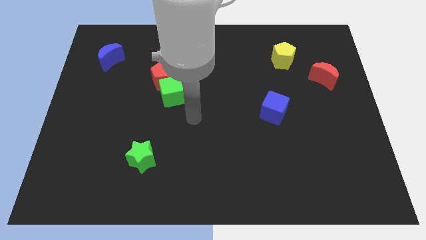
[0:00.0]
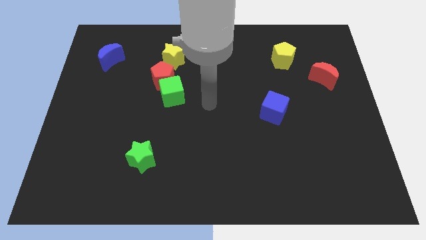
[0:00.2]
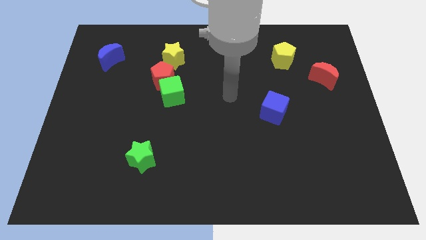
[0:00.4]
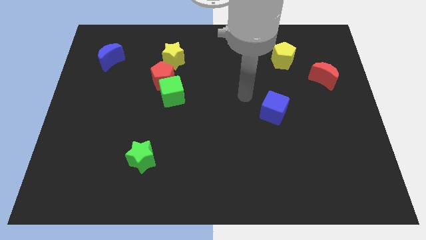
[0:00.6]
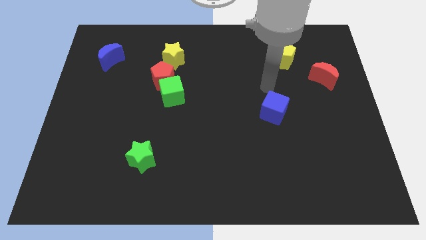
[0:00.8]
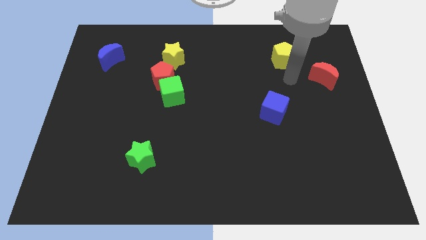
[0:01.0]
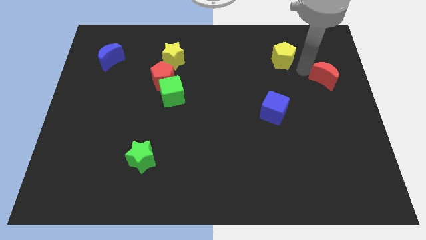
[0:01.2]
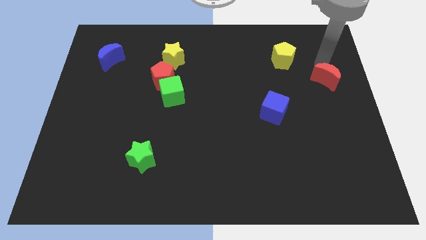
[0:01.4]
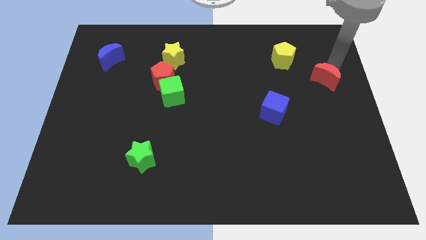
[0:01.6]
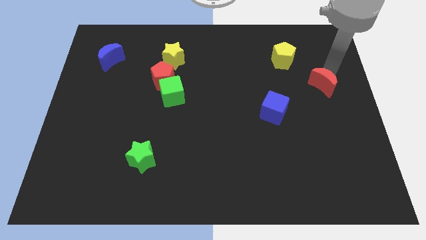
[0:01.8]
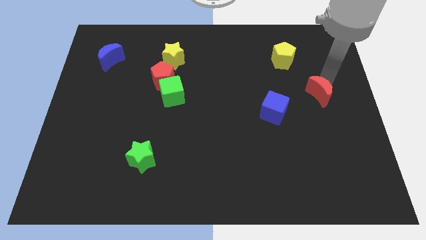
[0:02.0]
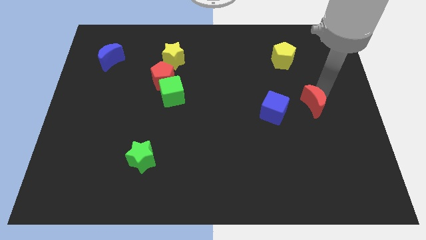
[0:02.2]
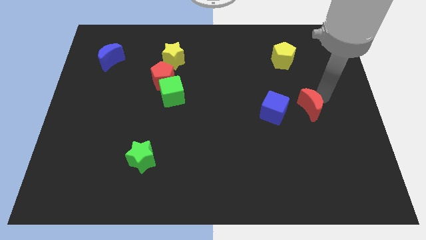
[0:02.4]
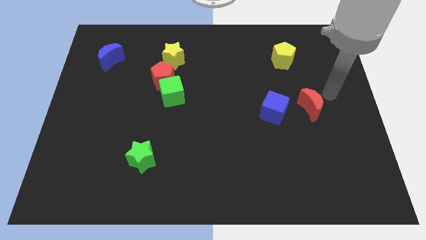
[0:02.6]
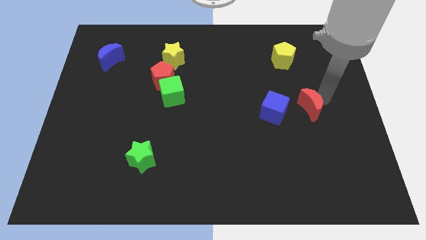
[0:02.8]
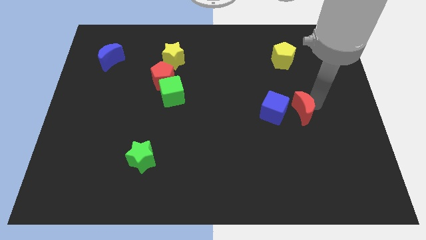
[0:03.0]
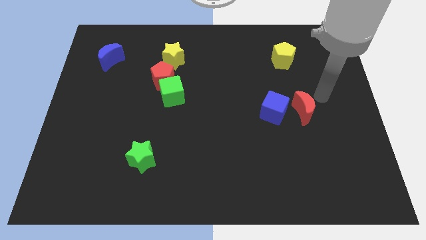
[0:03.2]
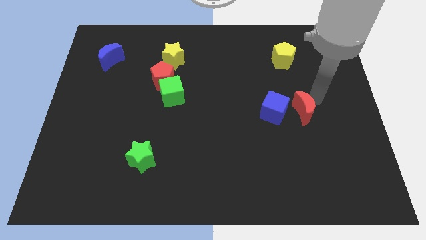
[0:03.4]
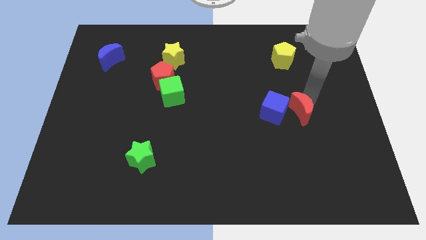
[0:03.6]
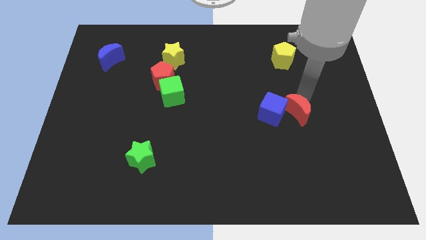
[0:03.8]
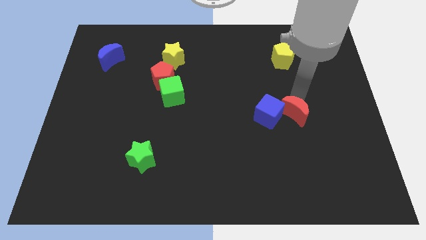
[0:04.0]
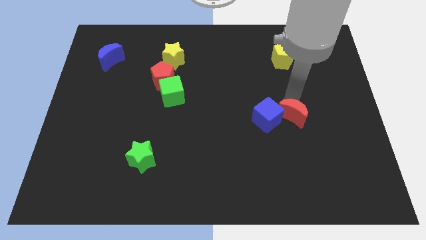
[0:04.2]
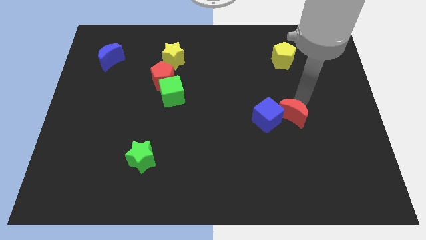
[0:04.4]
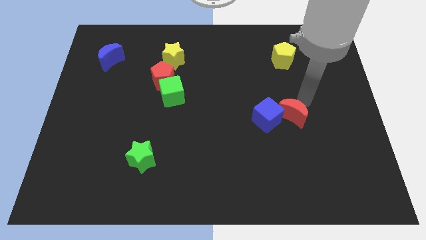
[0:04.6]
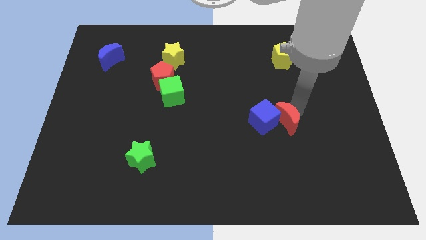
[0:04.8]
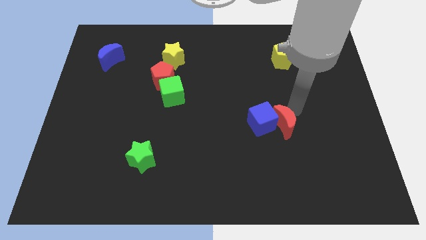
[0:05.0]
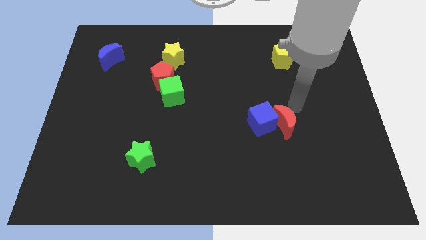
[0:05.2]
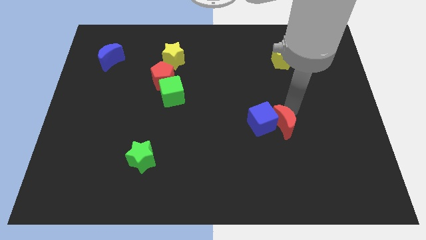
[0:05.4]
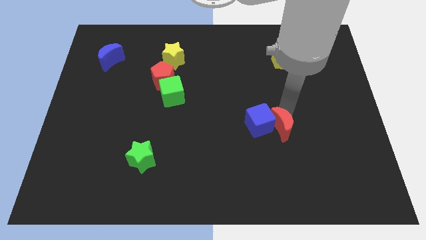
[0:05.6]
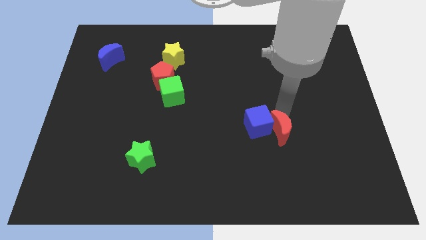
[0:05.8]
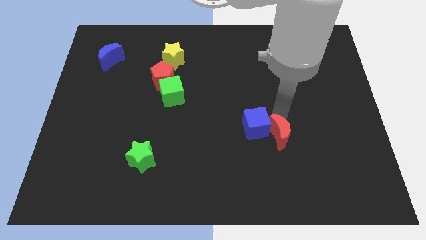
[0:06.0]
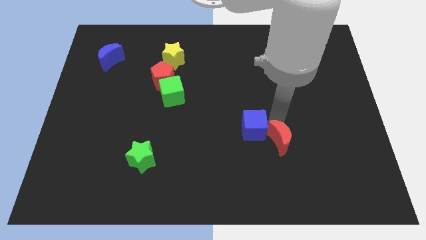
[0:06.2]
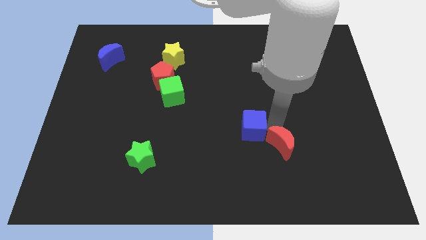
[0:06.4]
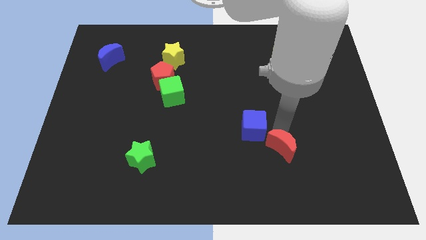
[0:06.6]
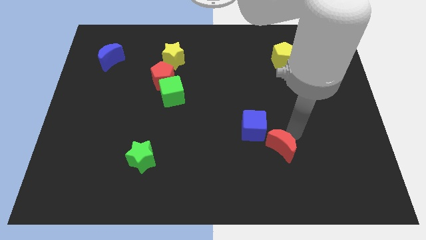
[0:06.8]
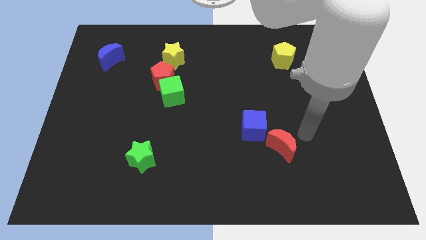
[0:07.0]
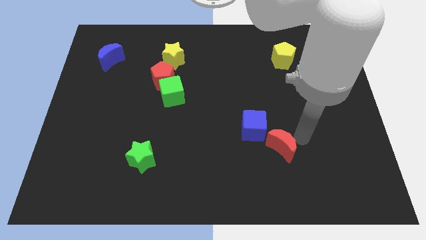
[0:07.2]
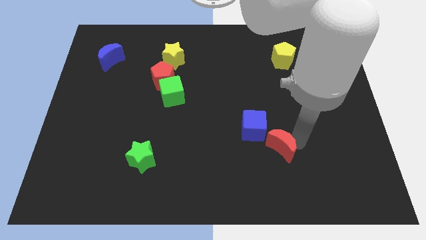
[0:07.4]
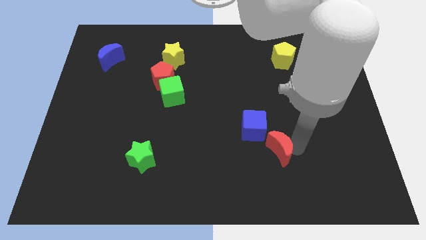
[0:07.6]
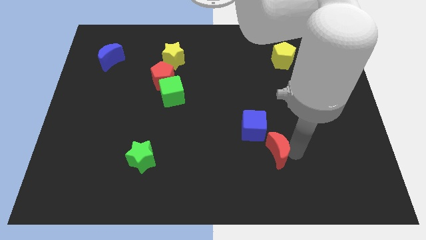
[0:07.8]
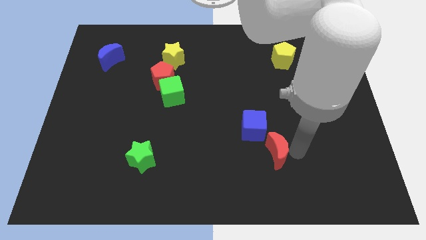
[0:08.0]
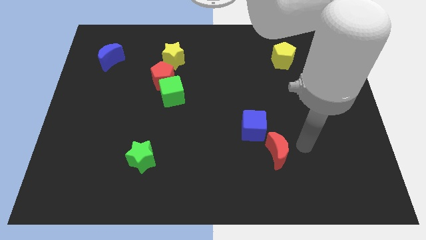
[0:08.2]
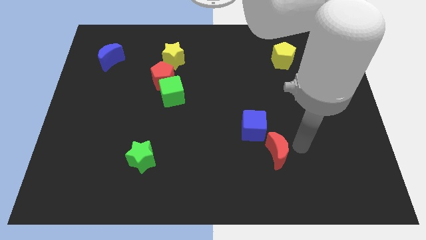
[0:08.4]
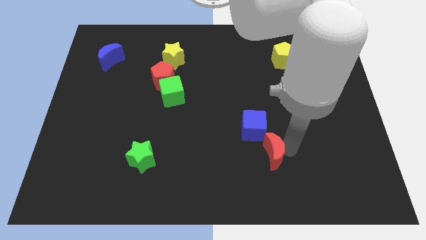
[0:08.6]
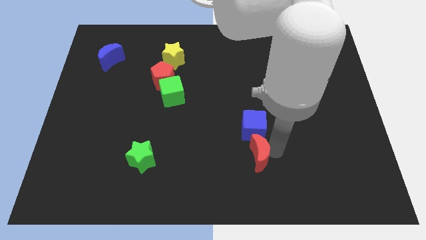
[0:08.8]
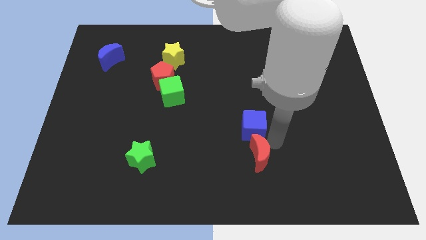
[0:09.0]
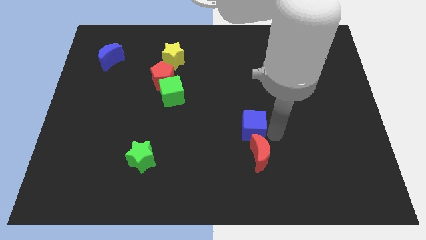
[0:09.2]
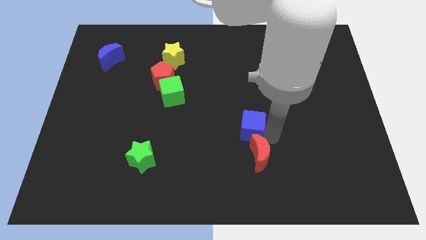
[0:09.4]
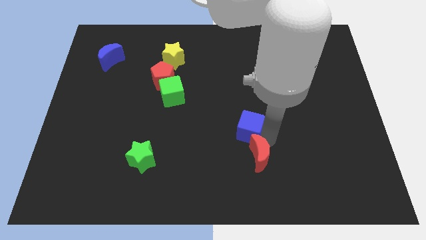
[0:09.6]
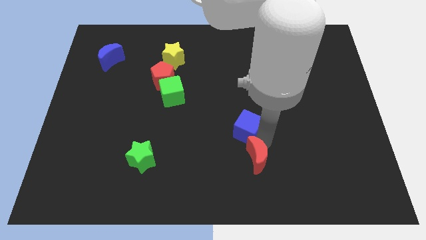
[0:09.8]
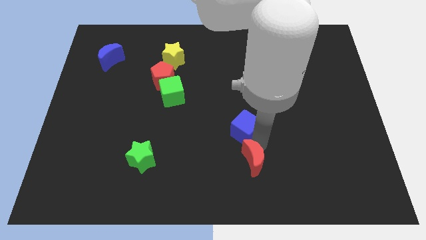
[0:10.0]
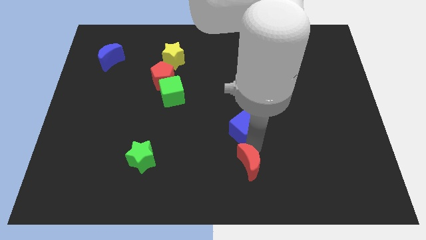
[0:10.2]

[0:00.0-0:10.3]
push the red moon to the bottom

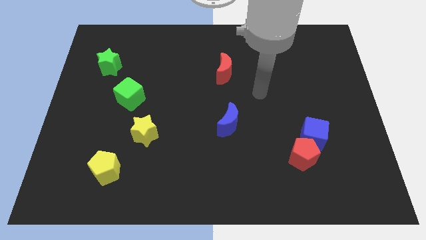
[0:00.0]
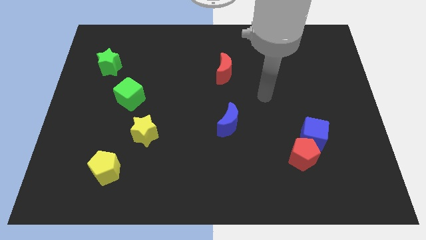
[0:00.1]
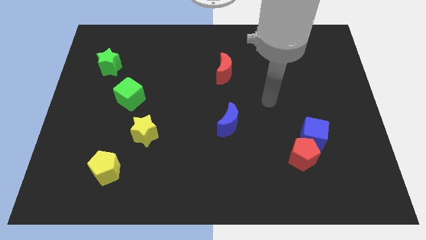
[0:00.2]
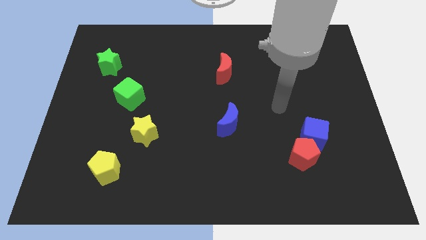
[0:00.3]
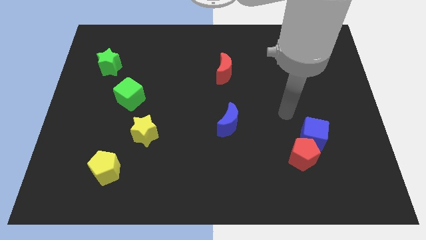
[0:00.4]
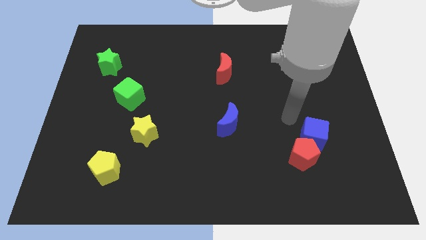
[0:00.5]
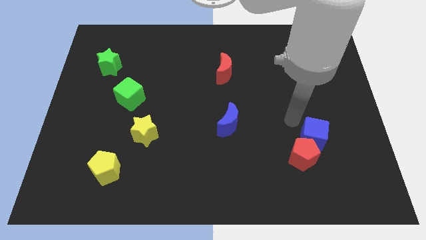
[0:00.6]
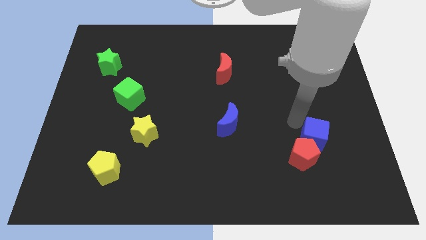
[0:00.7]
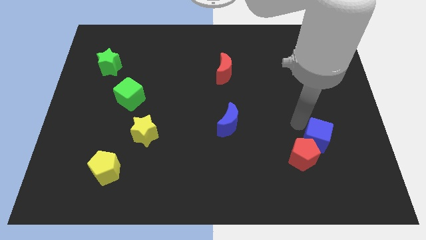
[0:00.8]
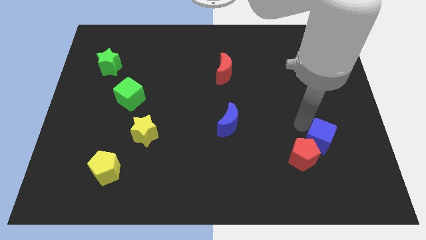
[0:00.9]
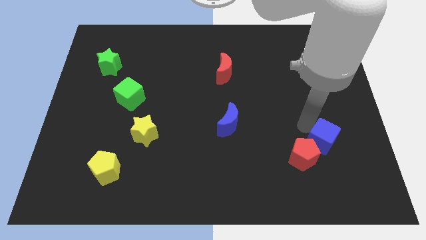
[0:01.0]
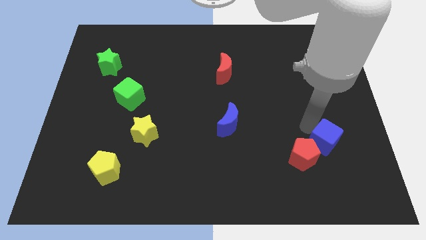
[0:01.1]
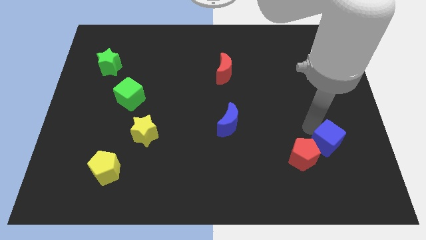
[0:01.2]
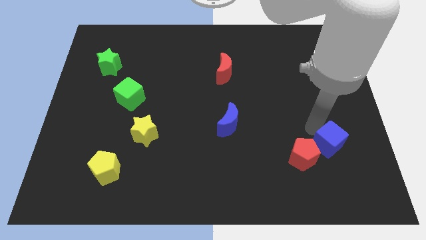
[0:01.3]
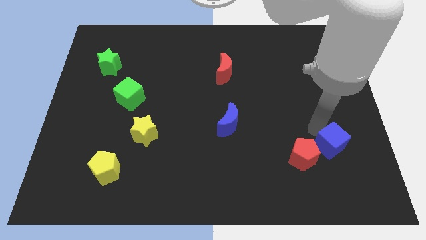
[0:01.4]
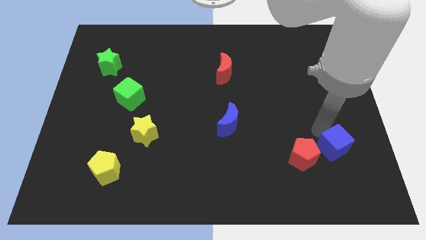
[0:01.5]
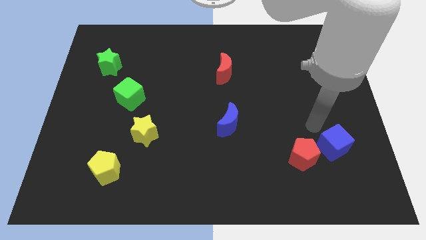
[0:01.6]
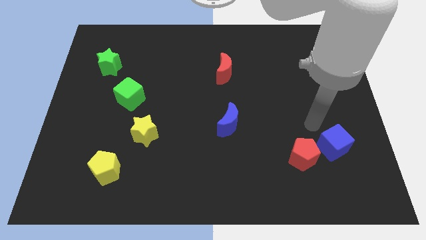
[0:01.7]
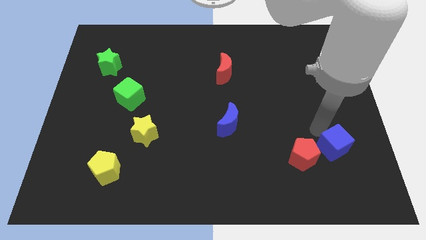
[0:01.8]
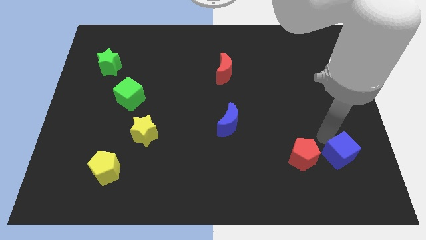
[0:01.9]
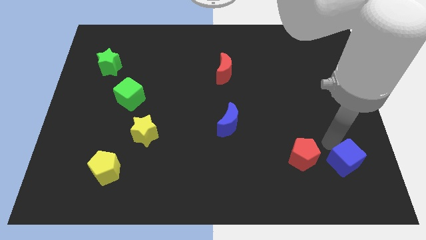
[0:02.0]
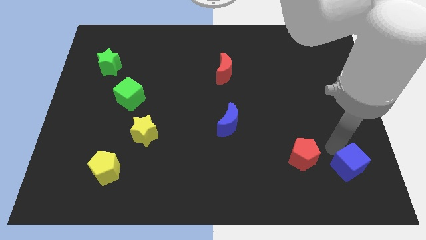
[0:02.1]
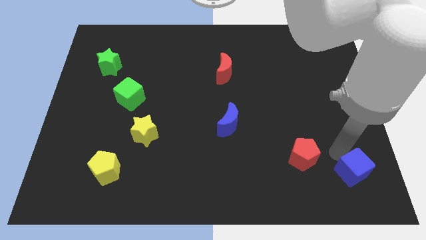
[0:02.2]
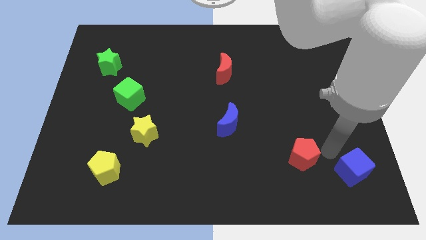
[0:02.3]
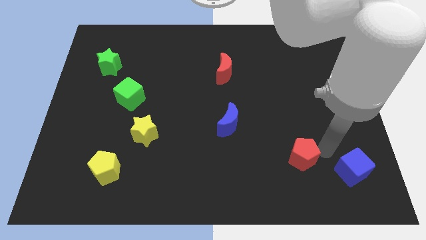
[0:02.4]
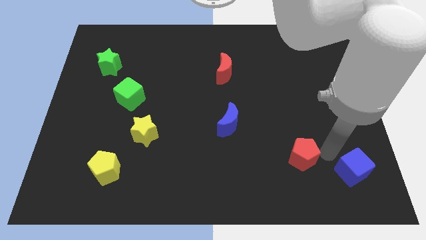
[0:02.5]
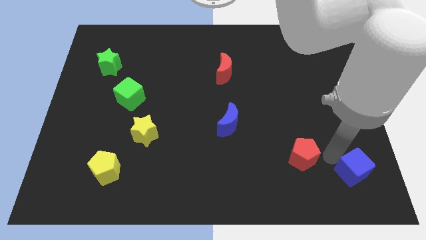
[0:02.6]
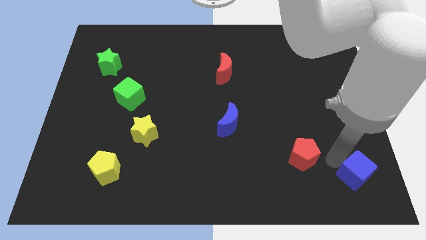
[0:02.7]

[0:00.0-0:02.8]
push the blue cube to the bottom right of the board
